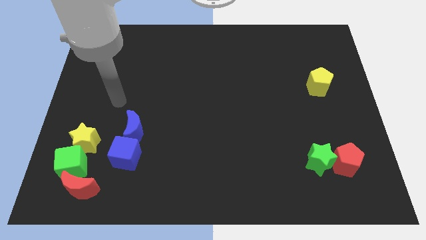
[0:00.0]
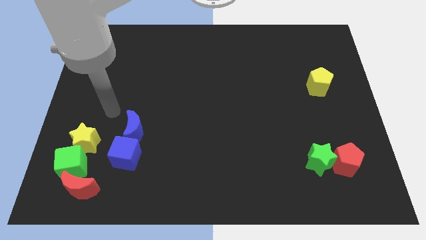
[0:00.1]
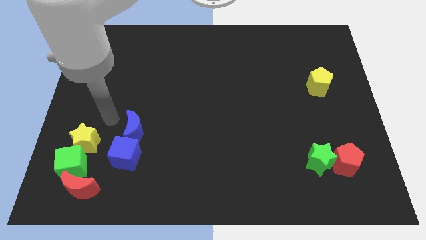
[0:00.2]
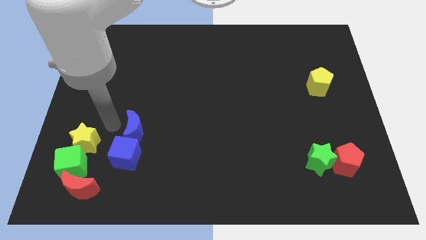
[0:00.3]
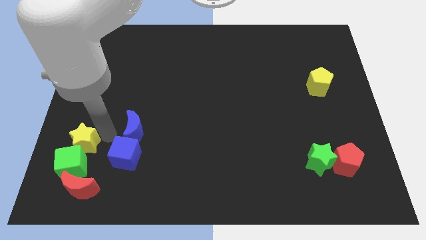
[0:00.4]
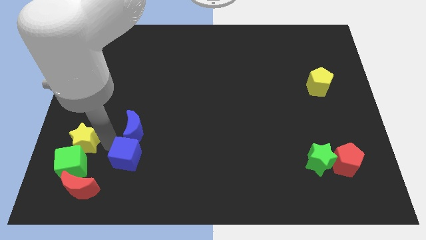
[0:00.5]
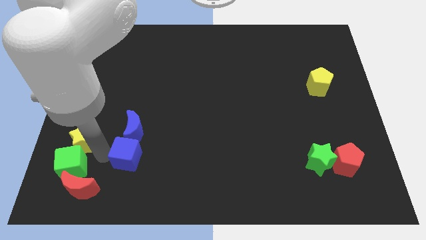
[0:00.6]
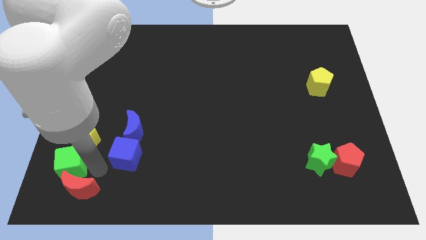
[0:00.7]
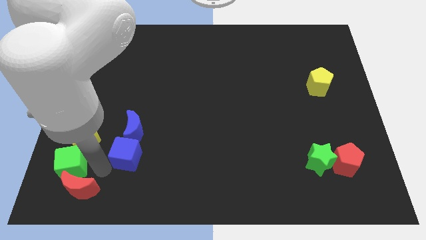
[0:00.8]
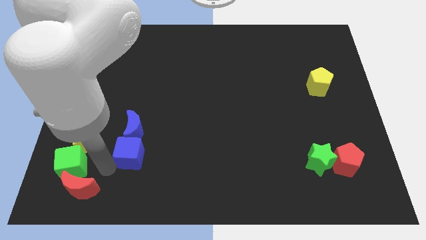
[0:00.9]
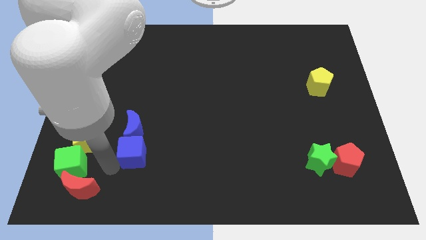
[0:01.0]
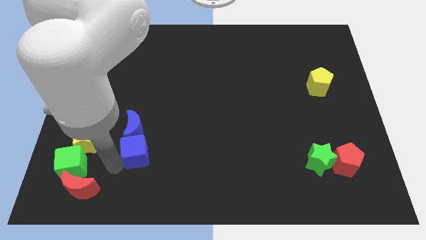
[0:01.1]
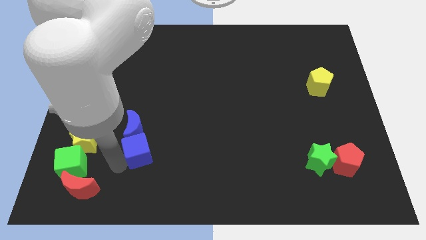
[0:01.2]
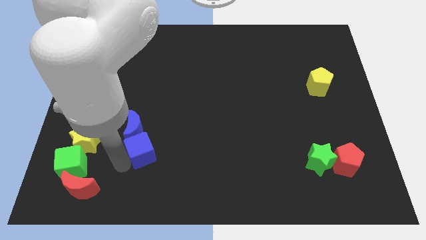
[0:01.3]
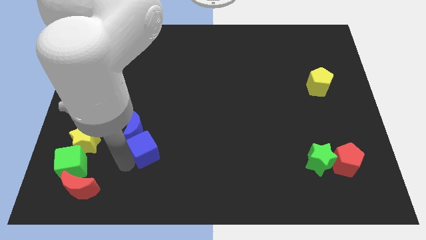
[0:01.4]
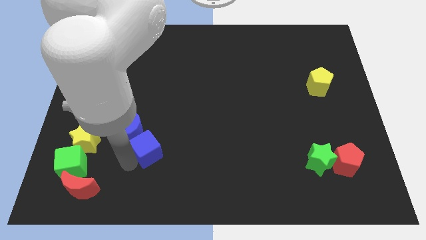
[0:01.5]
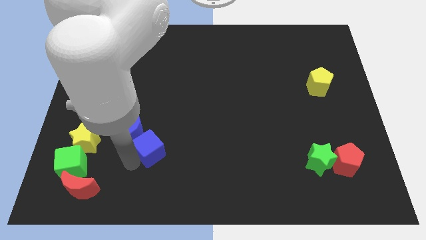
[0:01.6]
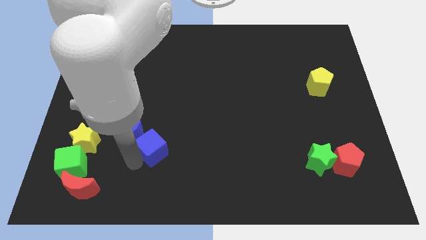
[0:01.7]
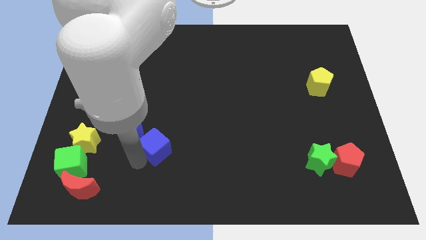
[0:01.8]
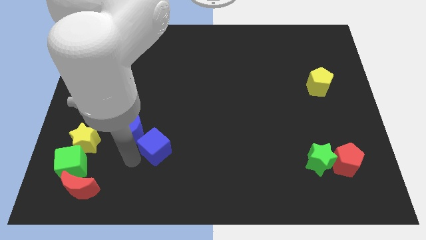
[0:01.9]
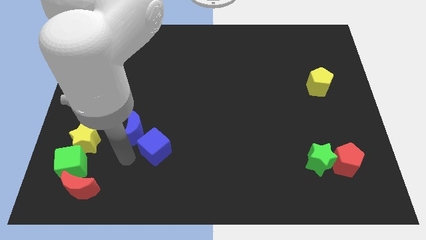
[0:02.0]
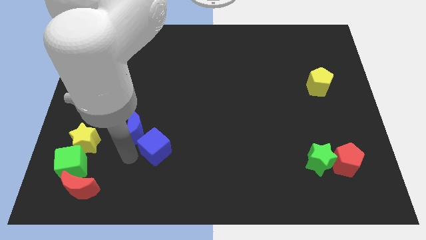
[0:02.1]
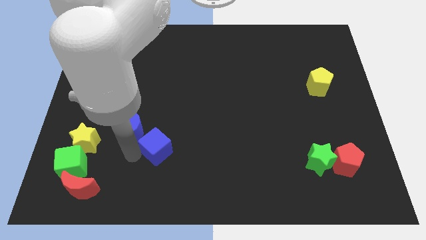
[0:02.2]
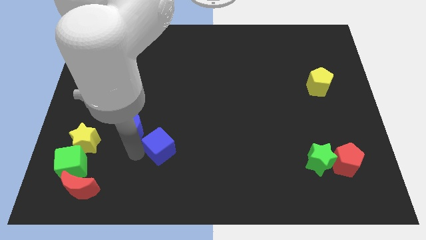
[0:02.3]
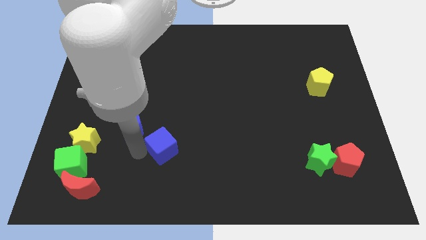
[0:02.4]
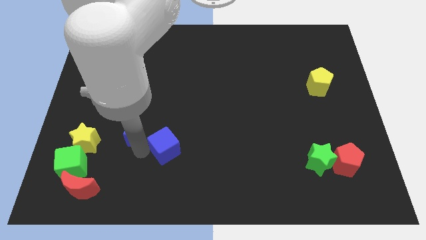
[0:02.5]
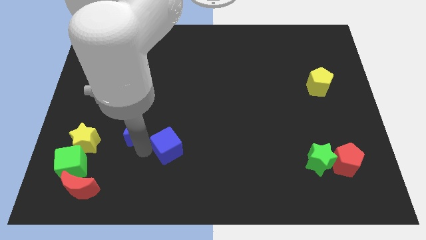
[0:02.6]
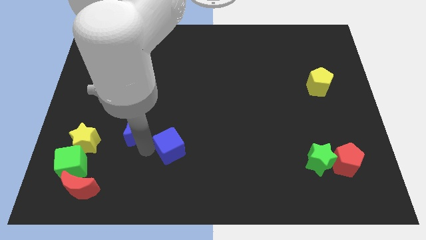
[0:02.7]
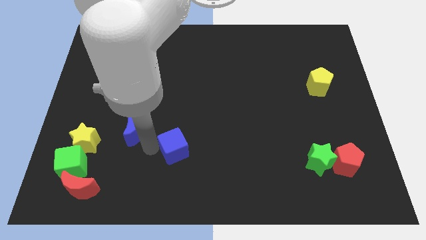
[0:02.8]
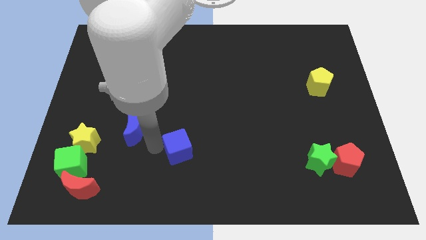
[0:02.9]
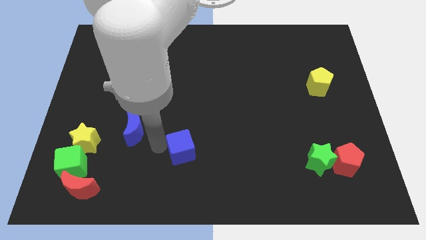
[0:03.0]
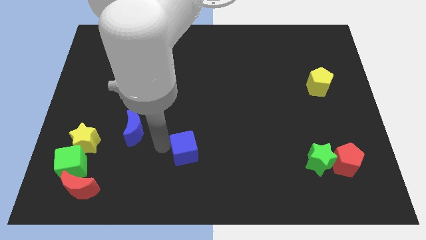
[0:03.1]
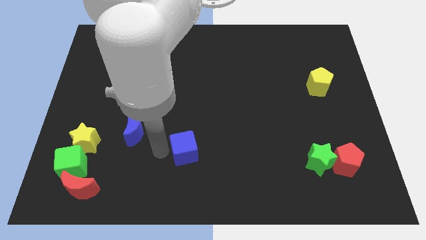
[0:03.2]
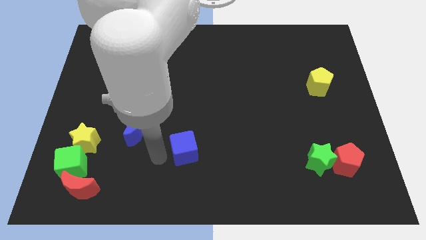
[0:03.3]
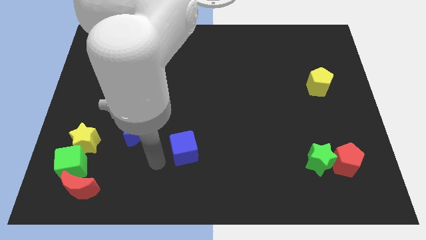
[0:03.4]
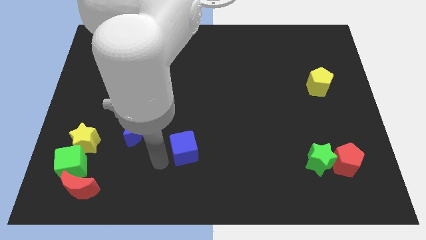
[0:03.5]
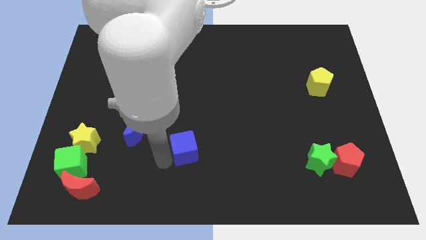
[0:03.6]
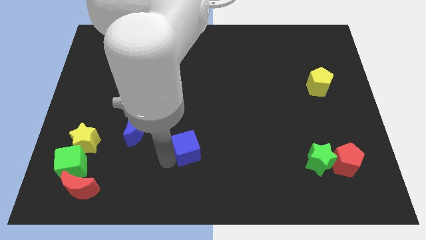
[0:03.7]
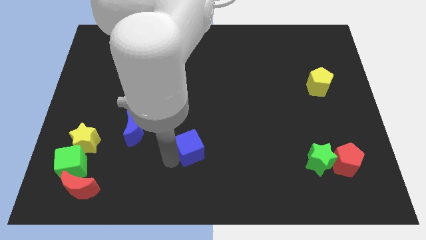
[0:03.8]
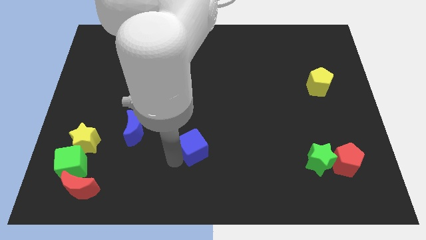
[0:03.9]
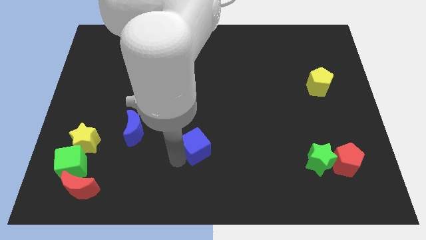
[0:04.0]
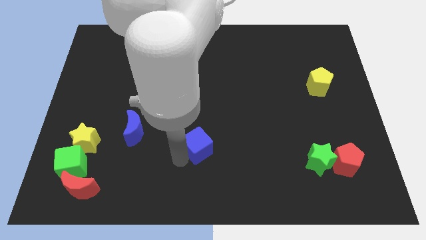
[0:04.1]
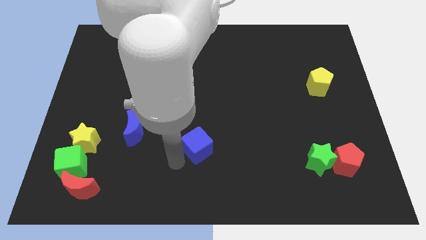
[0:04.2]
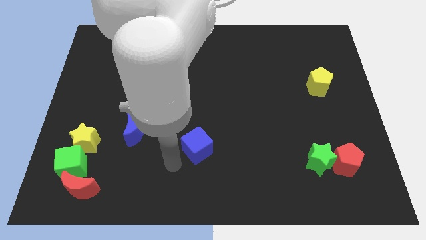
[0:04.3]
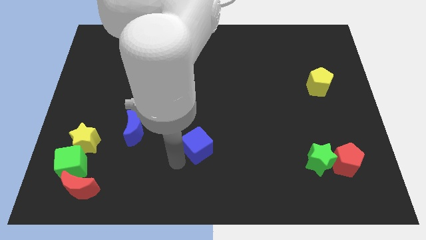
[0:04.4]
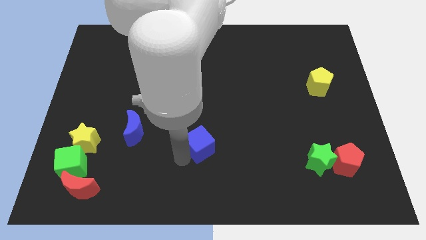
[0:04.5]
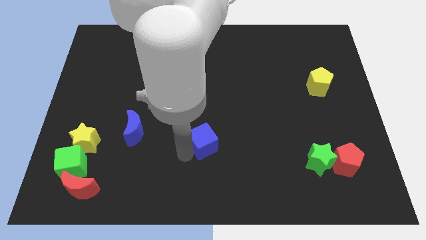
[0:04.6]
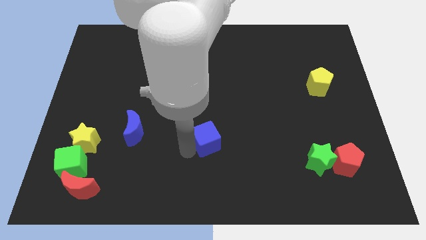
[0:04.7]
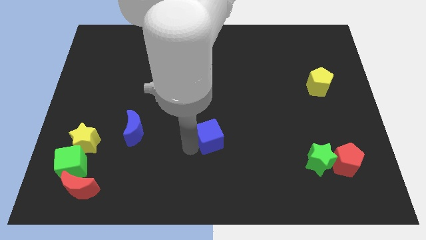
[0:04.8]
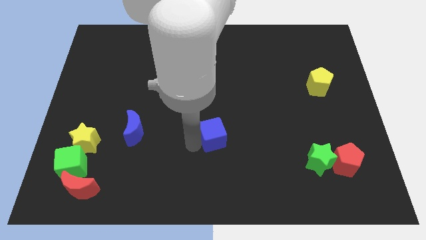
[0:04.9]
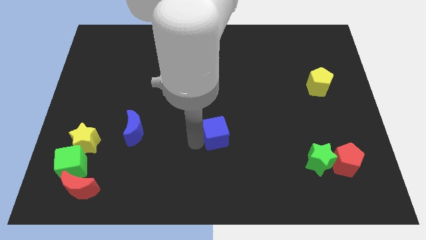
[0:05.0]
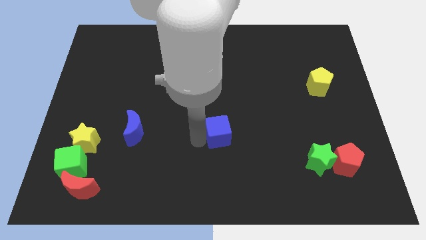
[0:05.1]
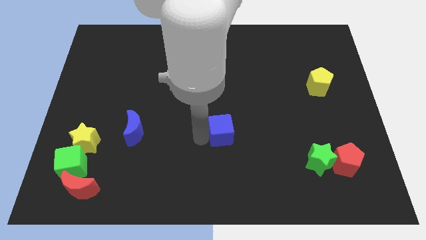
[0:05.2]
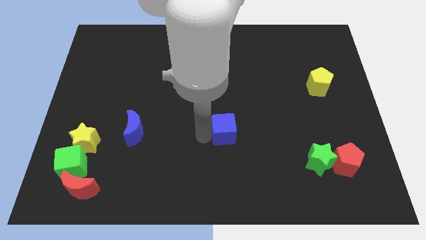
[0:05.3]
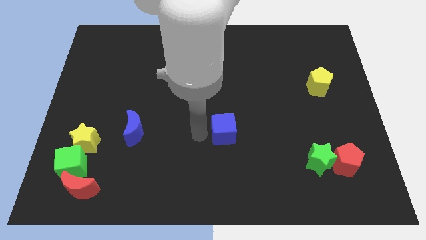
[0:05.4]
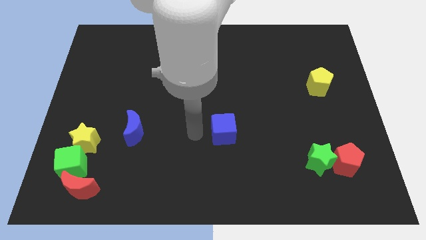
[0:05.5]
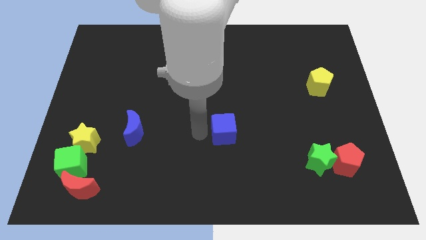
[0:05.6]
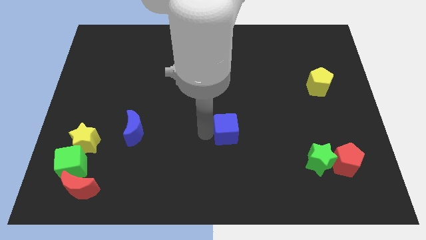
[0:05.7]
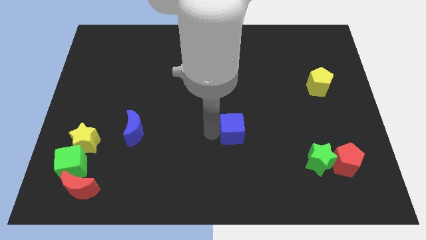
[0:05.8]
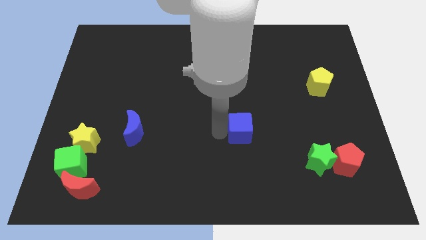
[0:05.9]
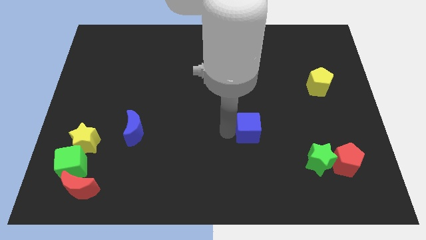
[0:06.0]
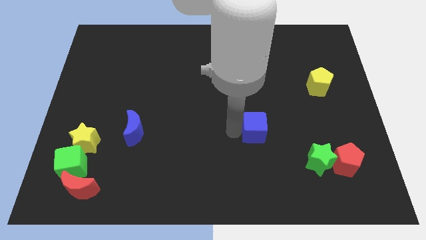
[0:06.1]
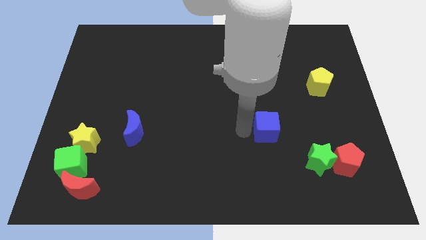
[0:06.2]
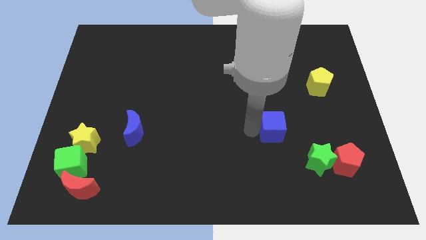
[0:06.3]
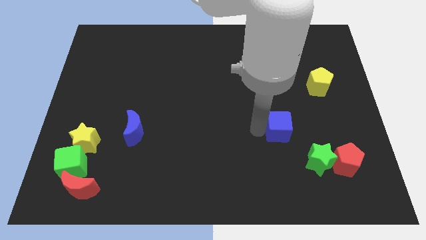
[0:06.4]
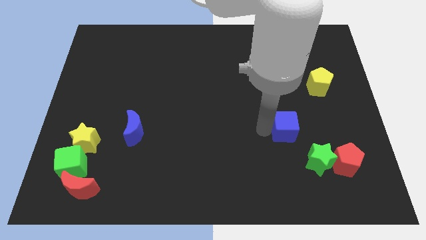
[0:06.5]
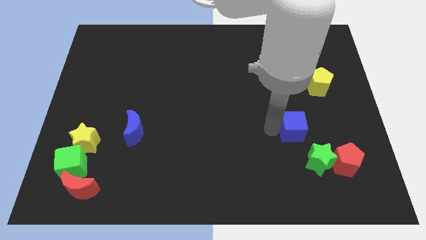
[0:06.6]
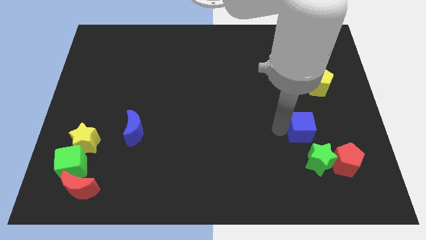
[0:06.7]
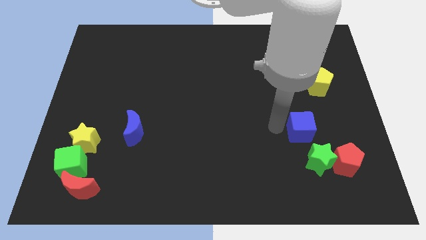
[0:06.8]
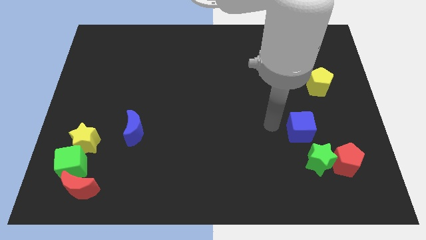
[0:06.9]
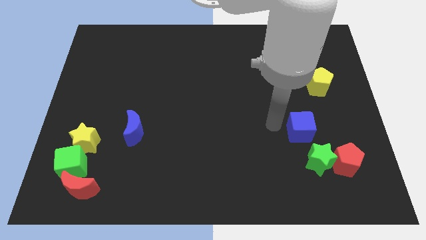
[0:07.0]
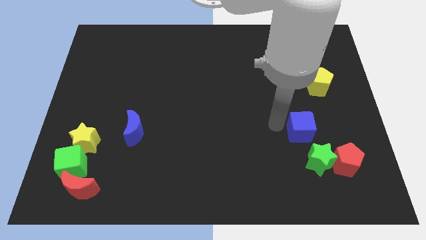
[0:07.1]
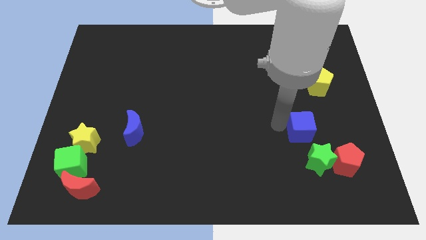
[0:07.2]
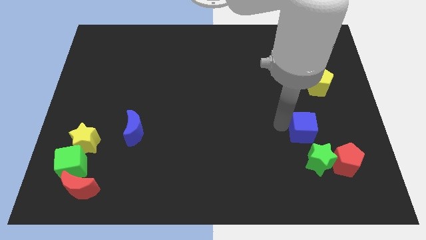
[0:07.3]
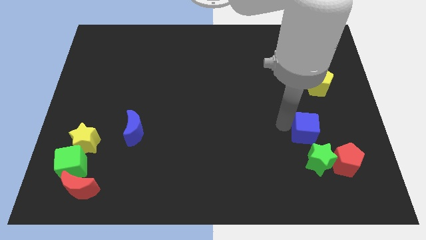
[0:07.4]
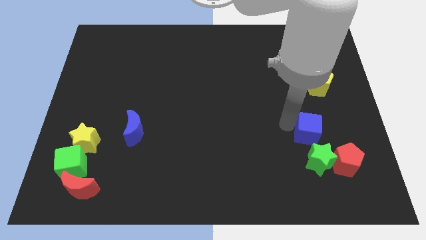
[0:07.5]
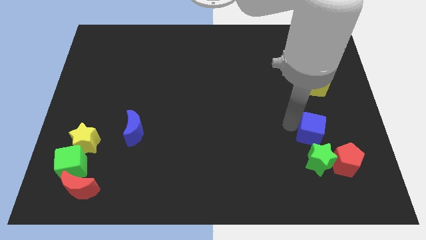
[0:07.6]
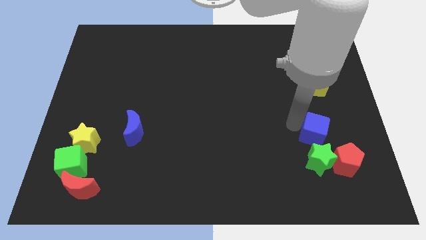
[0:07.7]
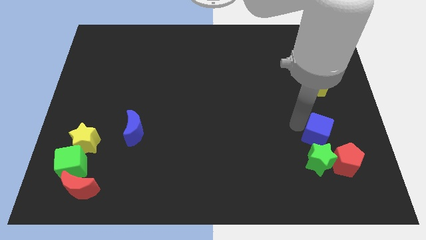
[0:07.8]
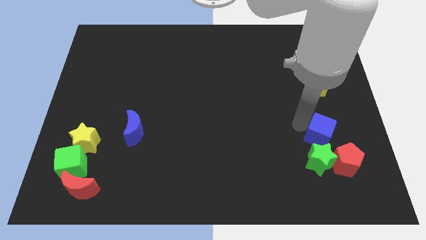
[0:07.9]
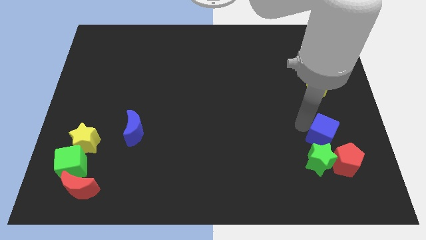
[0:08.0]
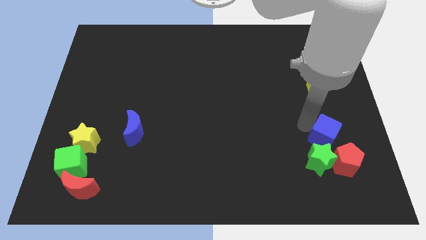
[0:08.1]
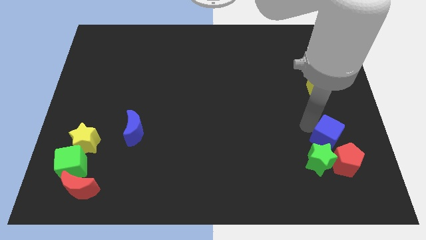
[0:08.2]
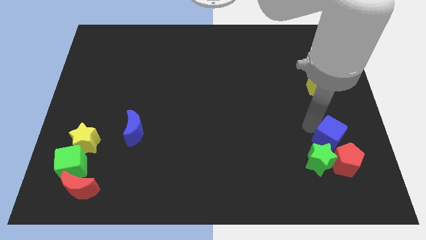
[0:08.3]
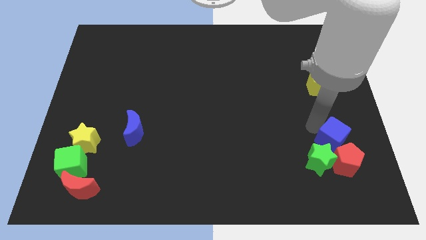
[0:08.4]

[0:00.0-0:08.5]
put the blue cube towards the red pentagon
